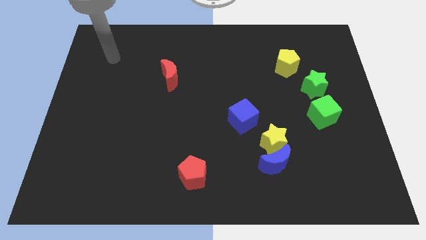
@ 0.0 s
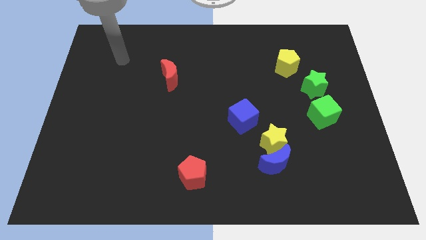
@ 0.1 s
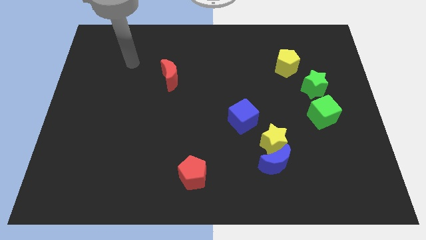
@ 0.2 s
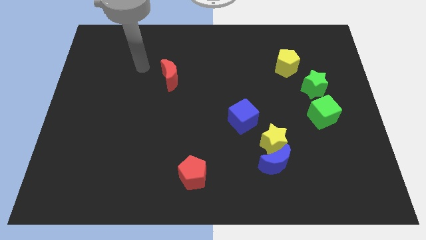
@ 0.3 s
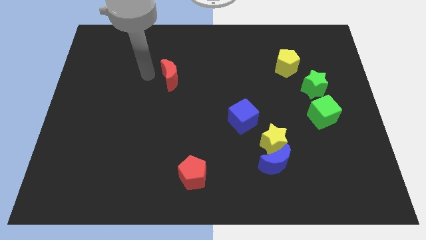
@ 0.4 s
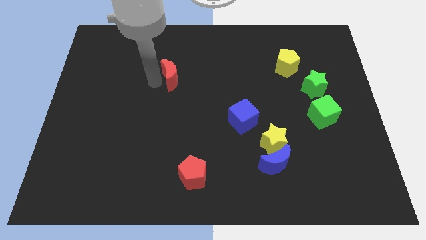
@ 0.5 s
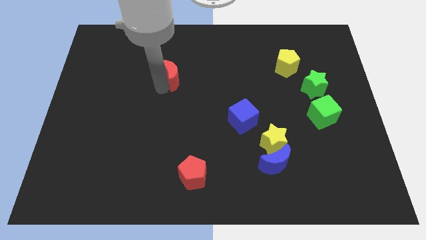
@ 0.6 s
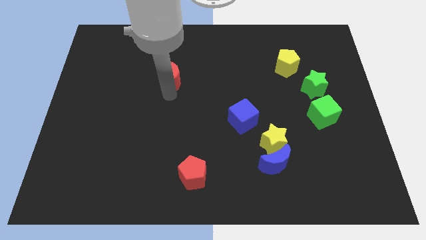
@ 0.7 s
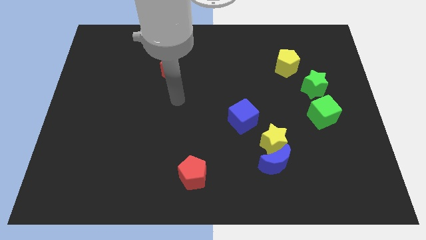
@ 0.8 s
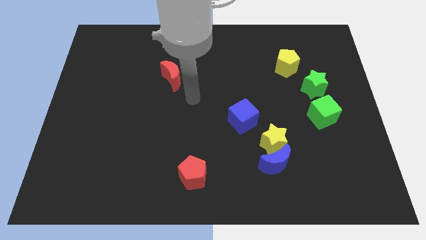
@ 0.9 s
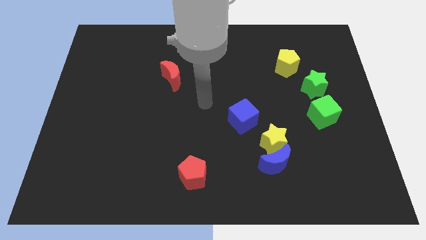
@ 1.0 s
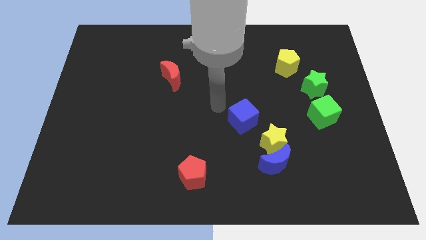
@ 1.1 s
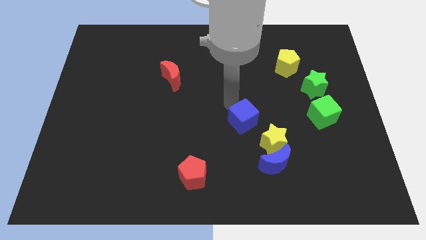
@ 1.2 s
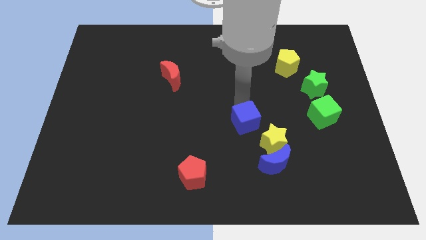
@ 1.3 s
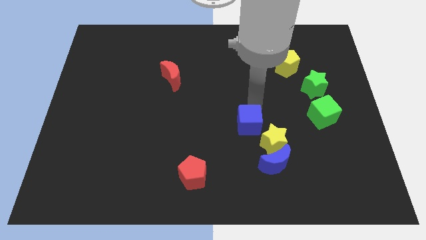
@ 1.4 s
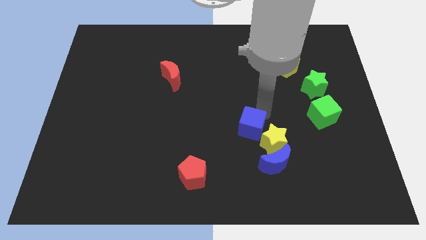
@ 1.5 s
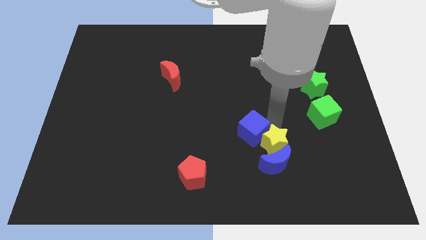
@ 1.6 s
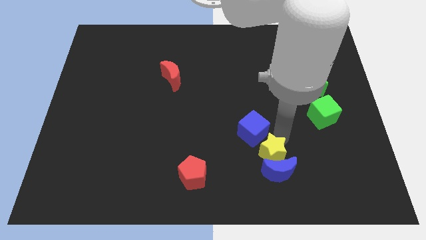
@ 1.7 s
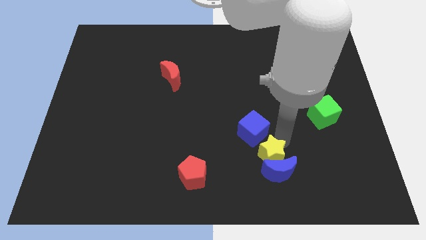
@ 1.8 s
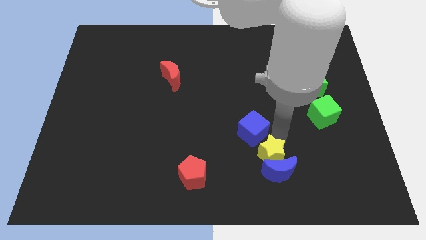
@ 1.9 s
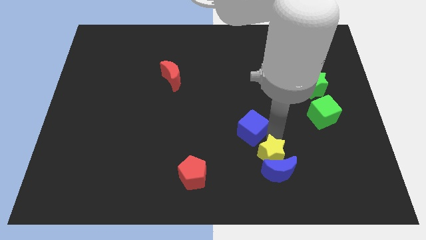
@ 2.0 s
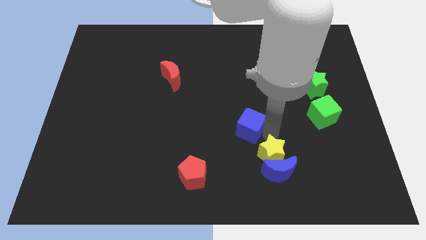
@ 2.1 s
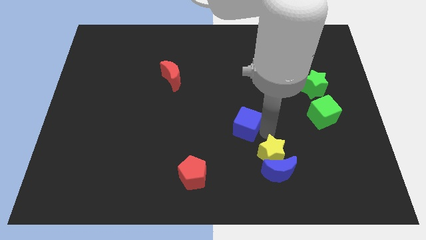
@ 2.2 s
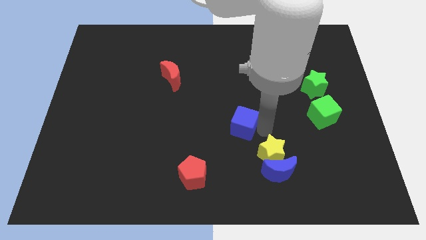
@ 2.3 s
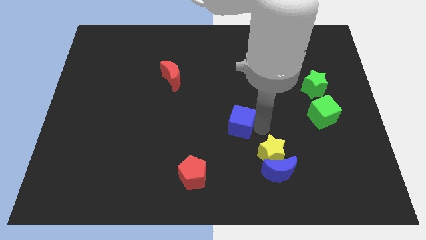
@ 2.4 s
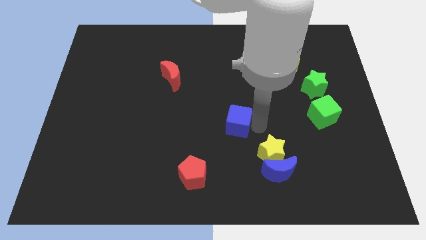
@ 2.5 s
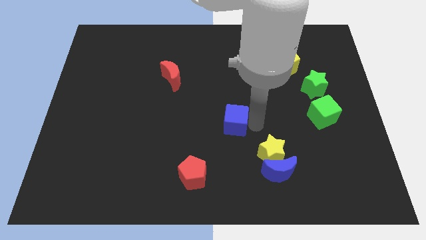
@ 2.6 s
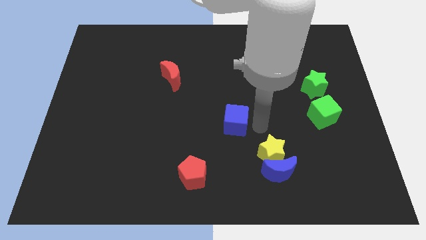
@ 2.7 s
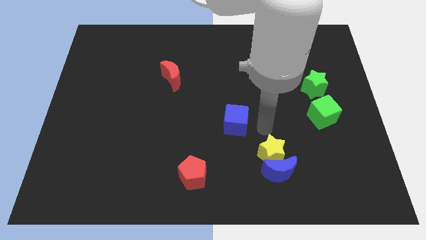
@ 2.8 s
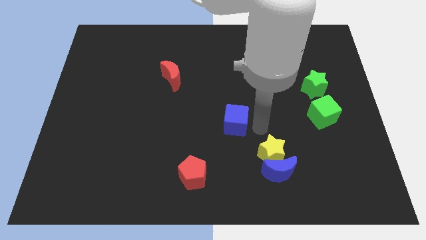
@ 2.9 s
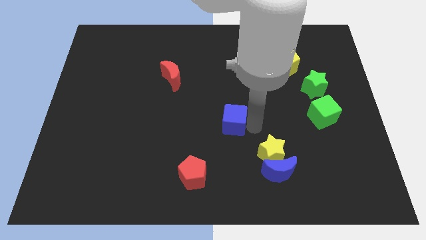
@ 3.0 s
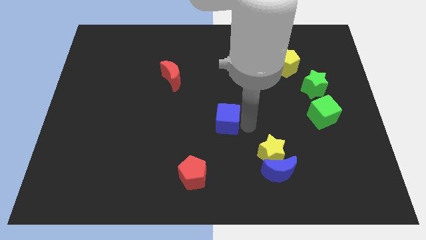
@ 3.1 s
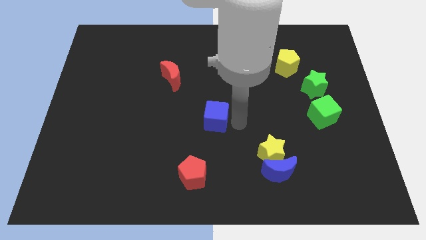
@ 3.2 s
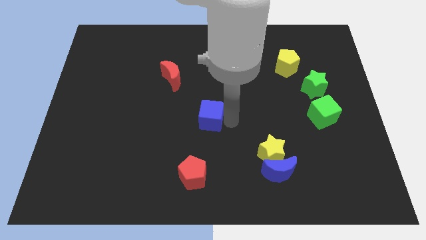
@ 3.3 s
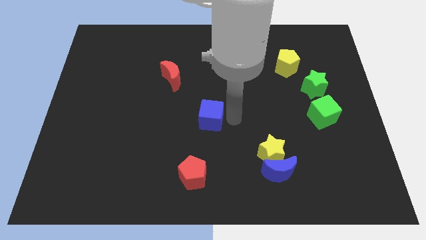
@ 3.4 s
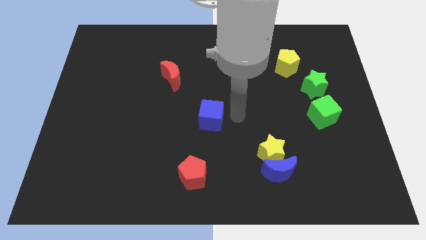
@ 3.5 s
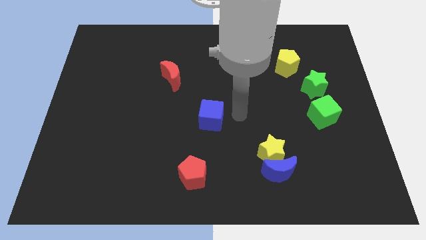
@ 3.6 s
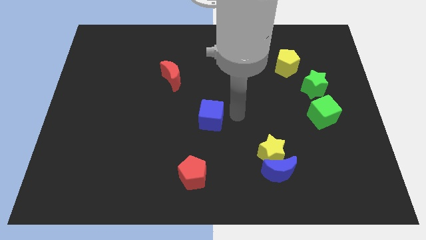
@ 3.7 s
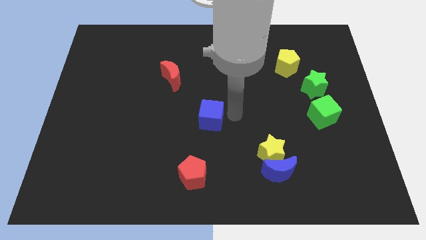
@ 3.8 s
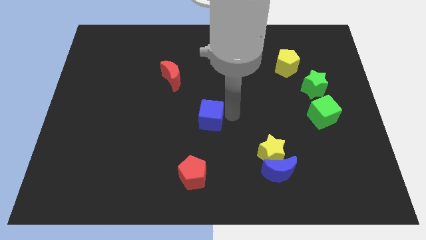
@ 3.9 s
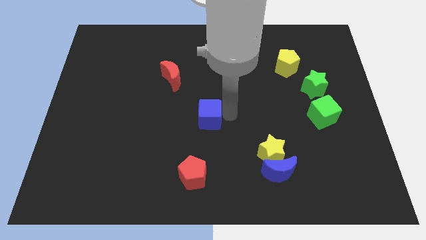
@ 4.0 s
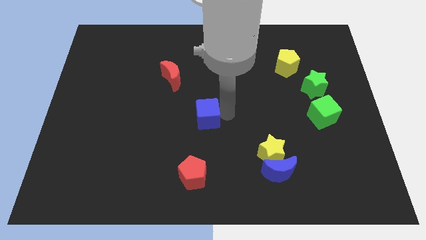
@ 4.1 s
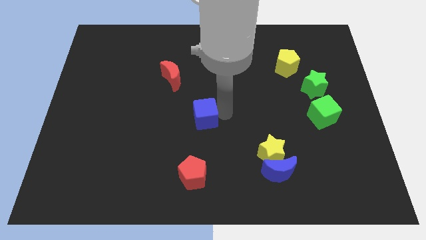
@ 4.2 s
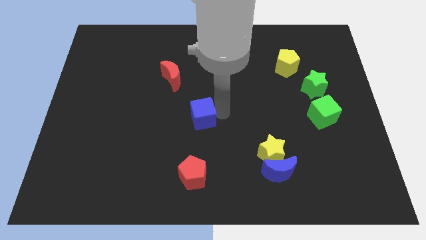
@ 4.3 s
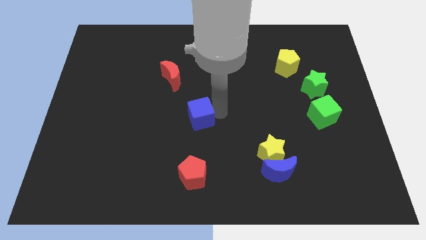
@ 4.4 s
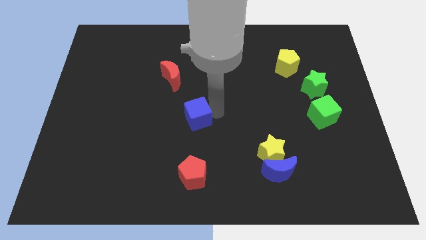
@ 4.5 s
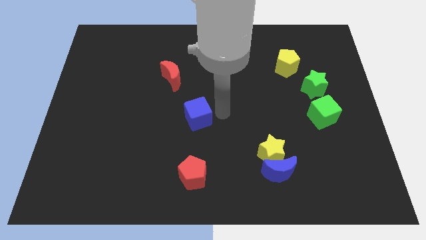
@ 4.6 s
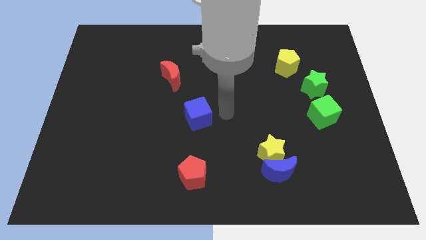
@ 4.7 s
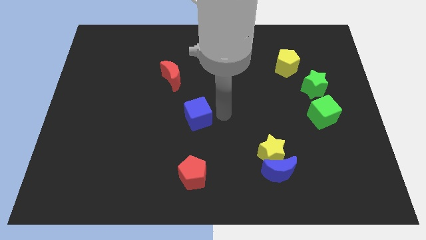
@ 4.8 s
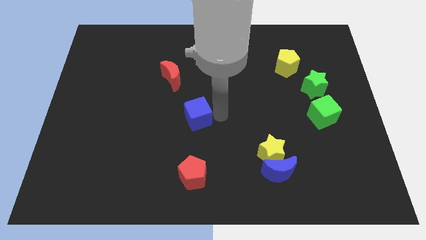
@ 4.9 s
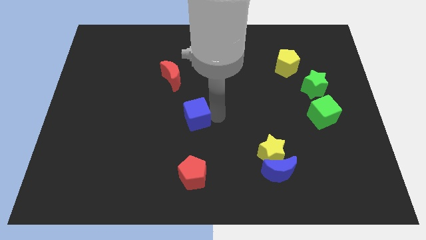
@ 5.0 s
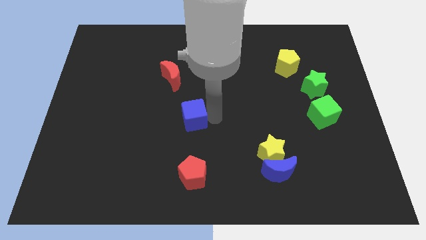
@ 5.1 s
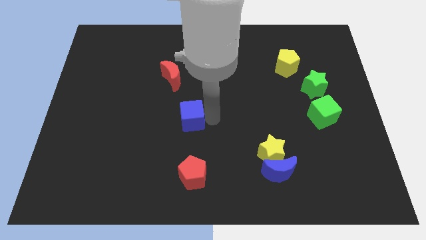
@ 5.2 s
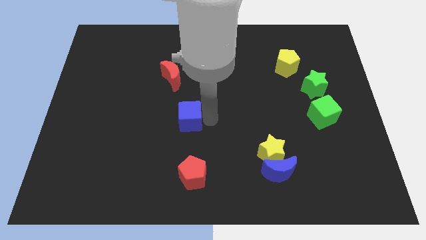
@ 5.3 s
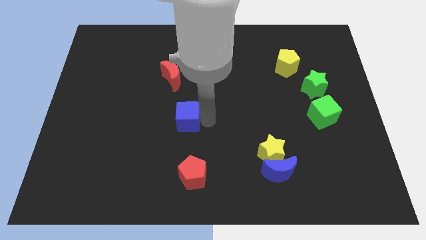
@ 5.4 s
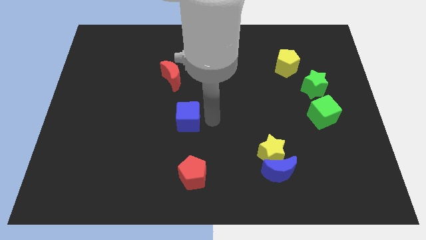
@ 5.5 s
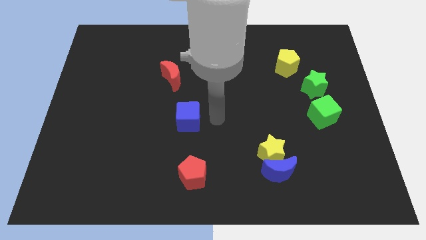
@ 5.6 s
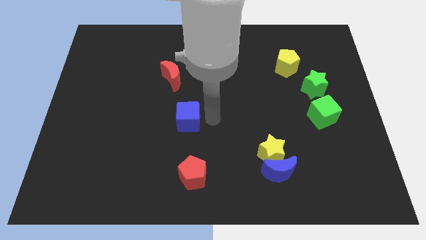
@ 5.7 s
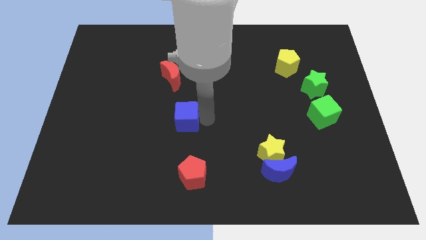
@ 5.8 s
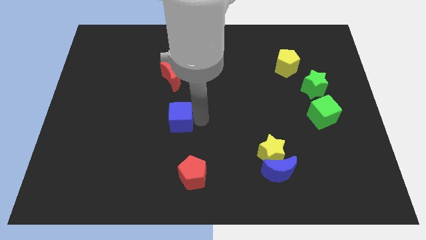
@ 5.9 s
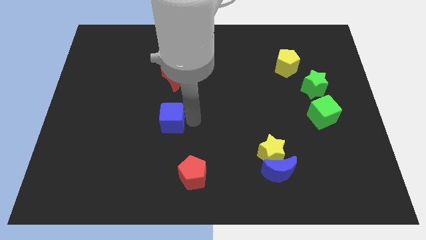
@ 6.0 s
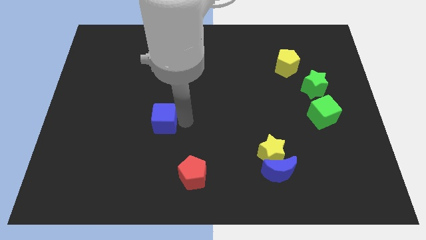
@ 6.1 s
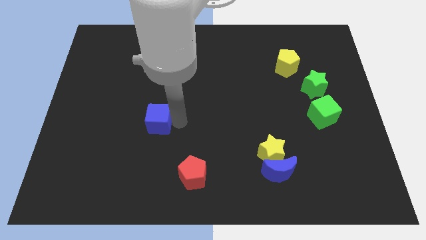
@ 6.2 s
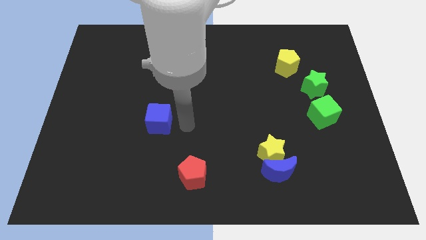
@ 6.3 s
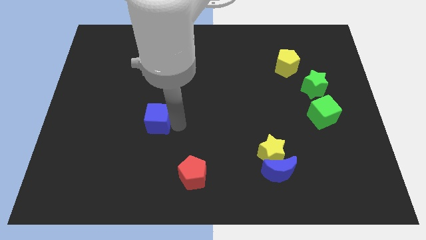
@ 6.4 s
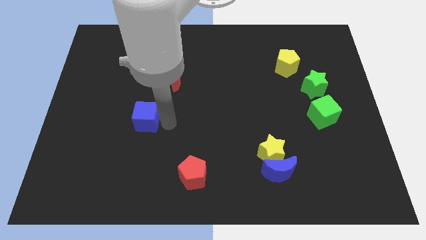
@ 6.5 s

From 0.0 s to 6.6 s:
push the blue cube to the left

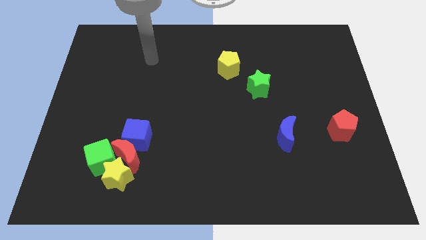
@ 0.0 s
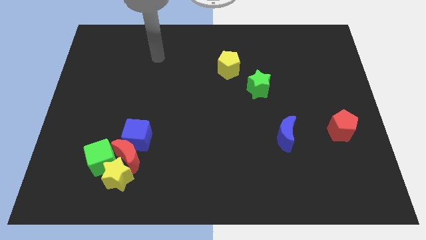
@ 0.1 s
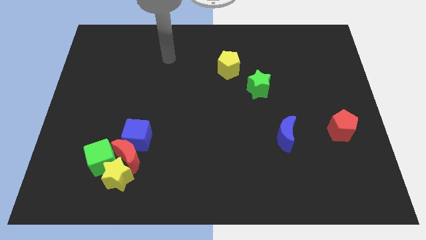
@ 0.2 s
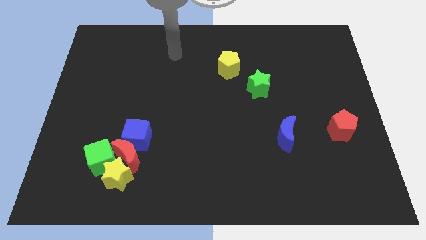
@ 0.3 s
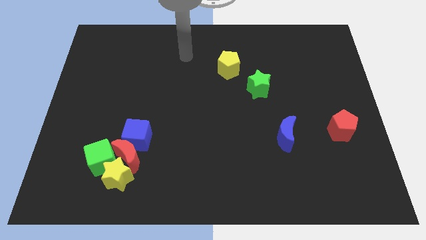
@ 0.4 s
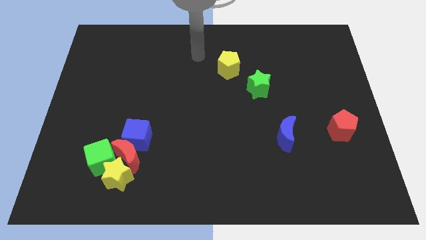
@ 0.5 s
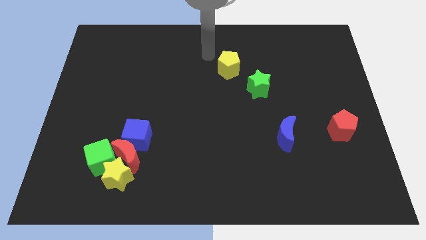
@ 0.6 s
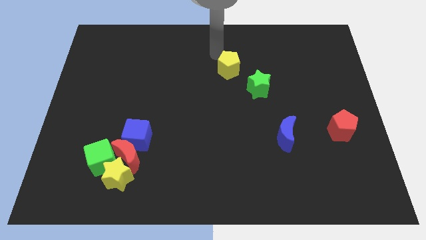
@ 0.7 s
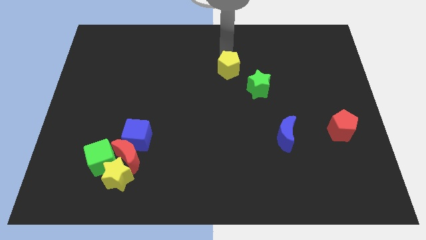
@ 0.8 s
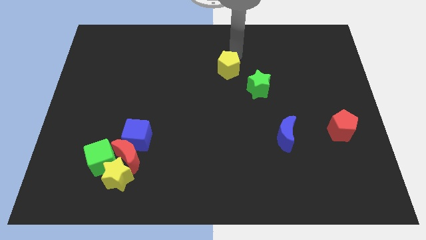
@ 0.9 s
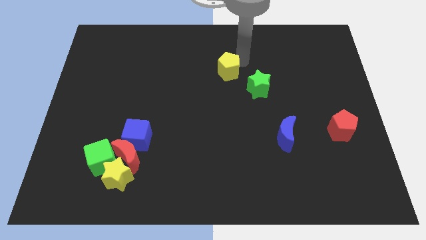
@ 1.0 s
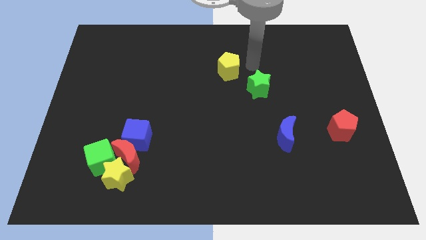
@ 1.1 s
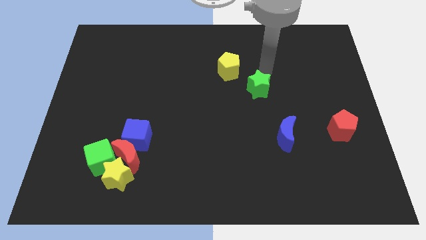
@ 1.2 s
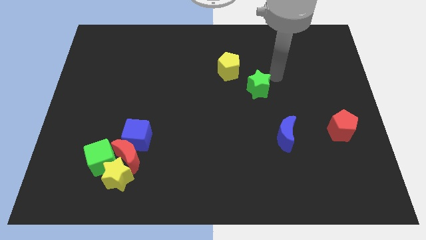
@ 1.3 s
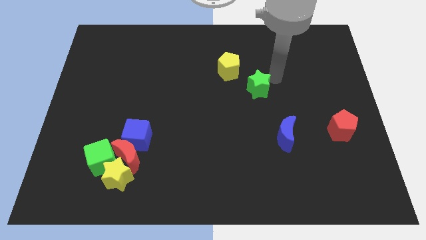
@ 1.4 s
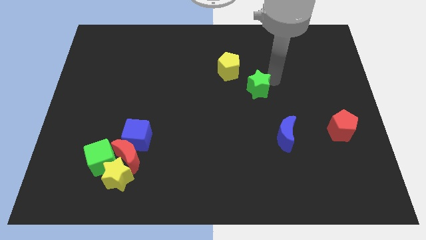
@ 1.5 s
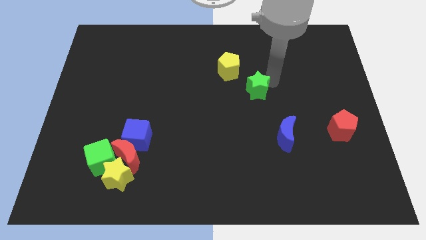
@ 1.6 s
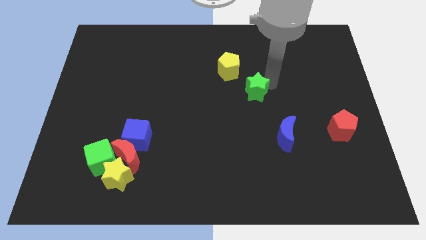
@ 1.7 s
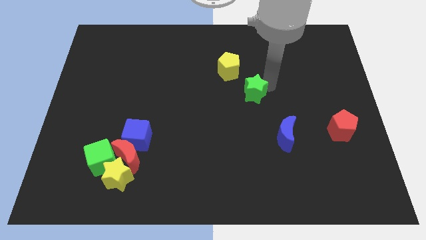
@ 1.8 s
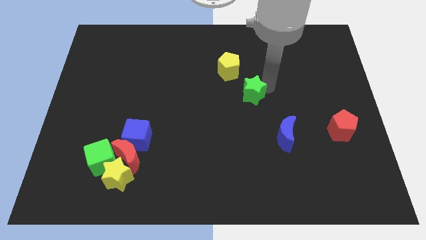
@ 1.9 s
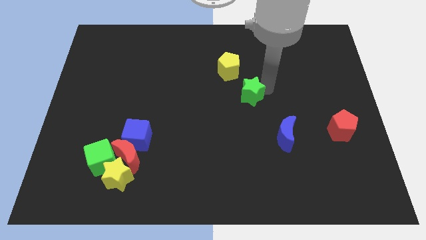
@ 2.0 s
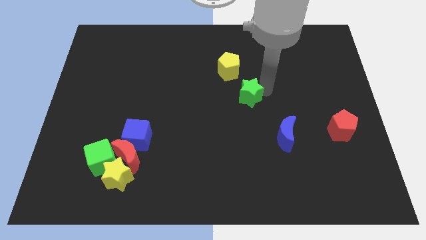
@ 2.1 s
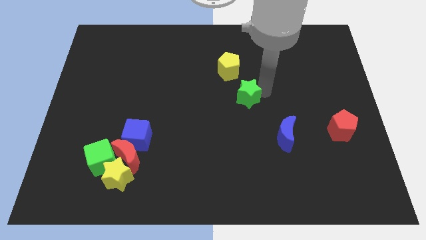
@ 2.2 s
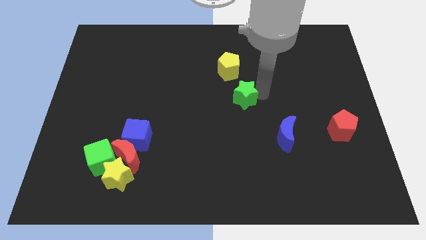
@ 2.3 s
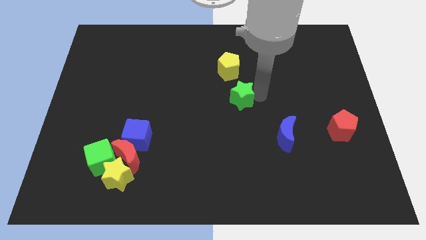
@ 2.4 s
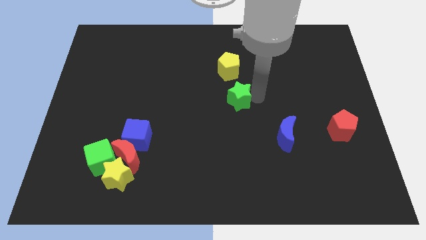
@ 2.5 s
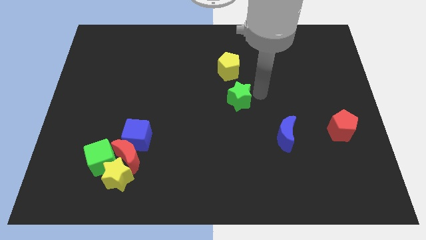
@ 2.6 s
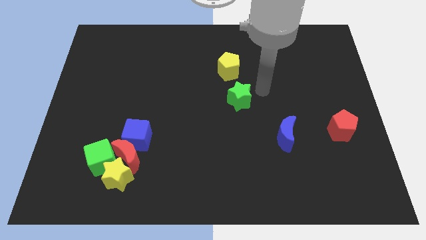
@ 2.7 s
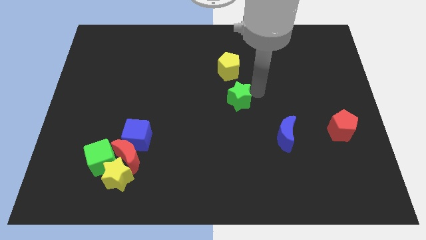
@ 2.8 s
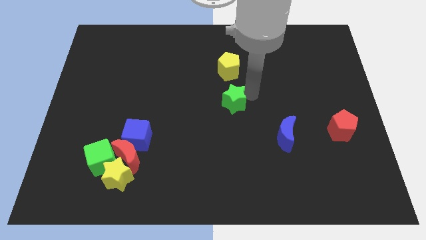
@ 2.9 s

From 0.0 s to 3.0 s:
slightly slide the green star downwards and left diagonally
